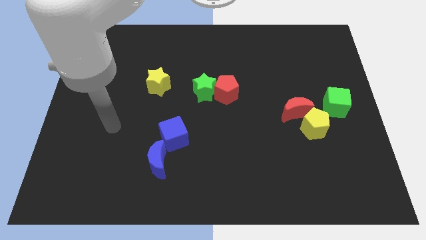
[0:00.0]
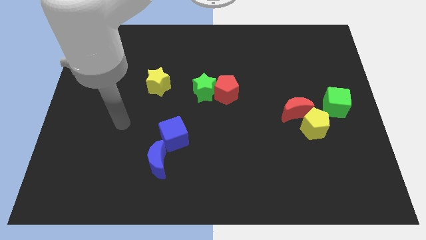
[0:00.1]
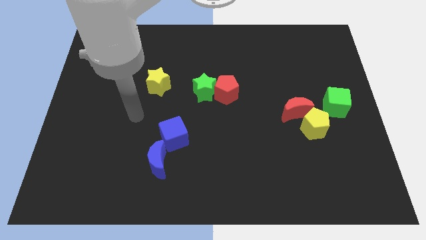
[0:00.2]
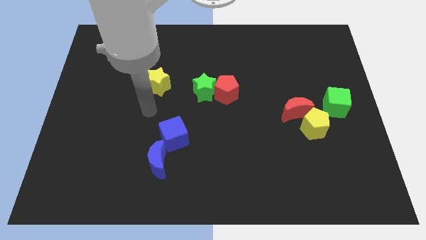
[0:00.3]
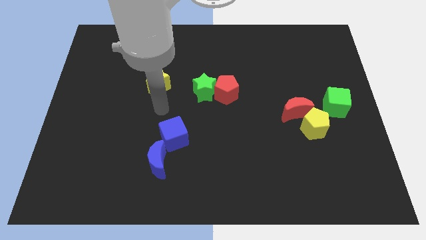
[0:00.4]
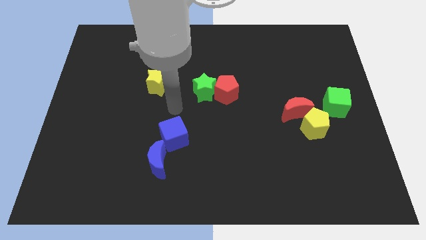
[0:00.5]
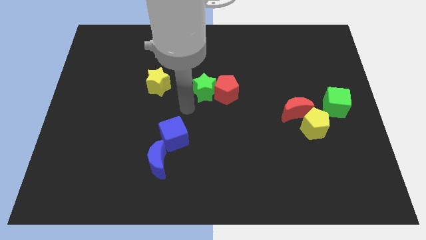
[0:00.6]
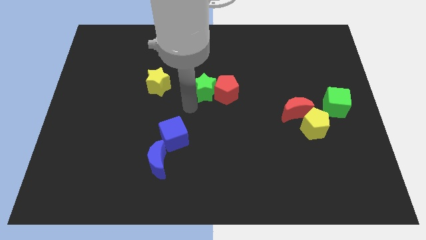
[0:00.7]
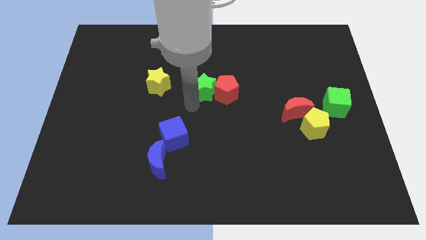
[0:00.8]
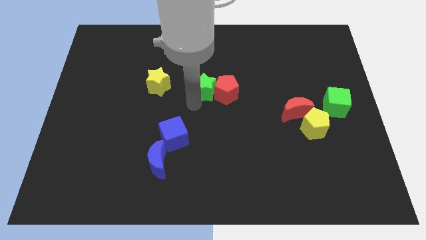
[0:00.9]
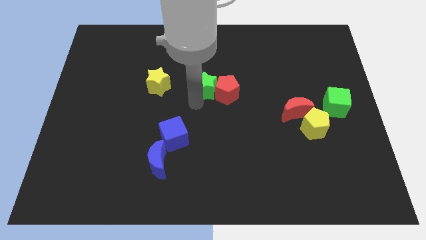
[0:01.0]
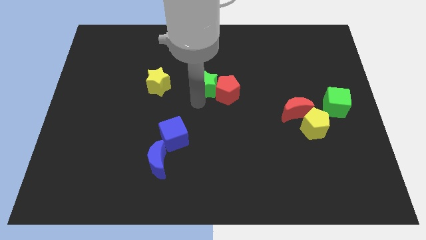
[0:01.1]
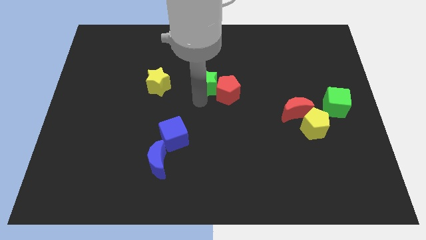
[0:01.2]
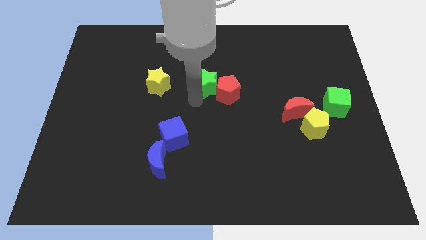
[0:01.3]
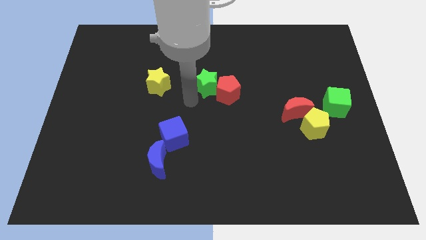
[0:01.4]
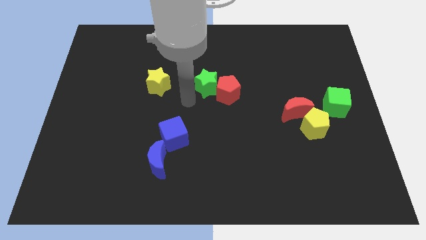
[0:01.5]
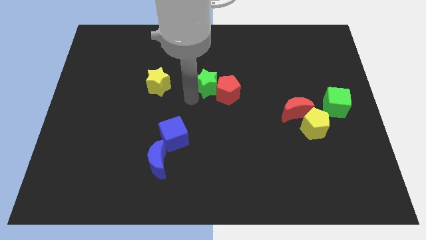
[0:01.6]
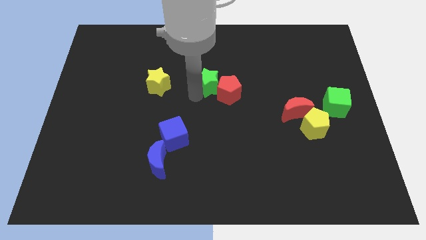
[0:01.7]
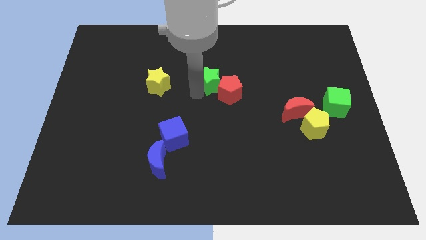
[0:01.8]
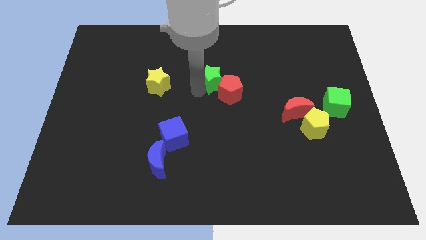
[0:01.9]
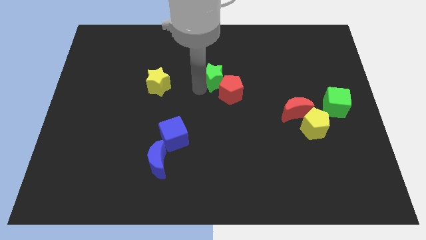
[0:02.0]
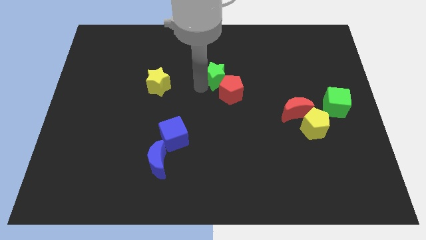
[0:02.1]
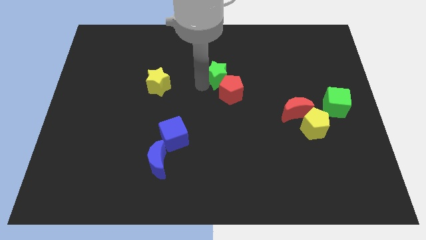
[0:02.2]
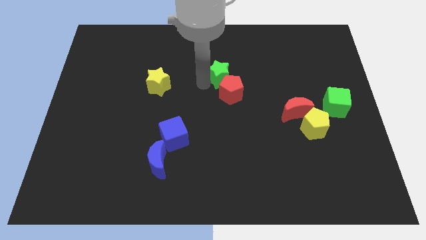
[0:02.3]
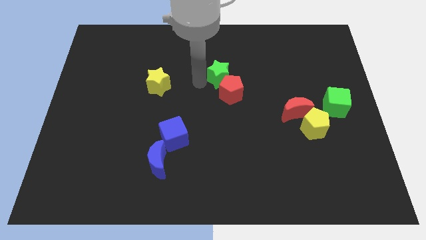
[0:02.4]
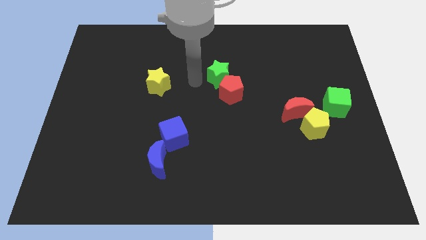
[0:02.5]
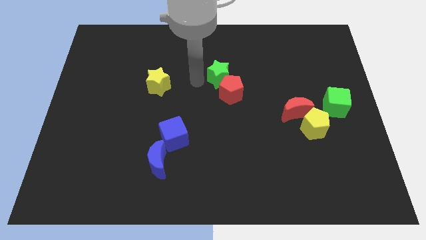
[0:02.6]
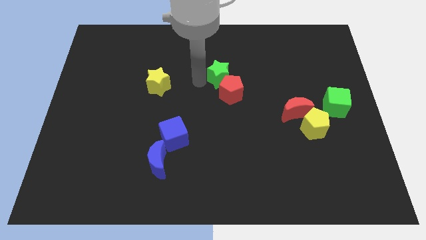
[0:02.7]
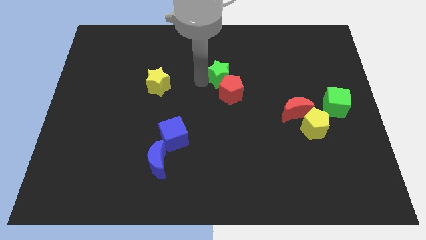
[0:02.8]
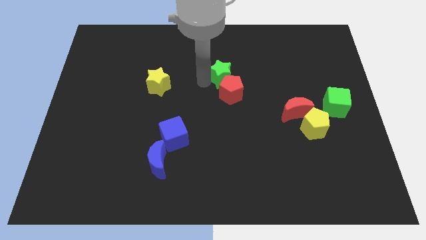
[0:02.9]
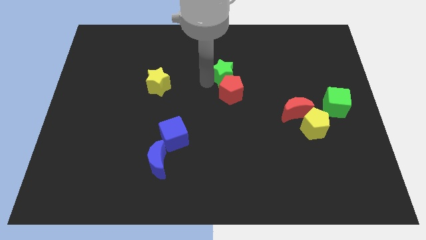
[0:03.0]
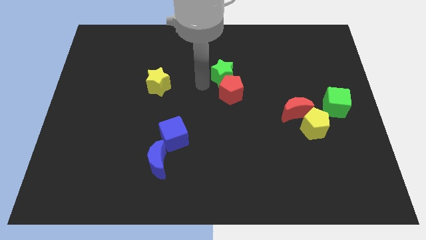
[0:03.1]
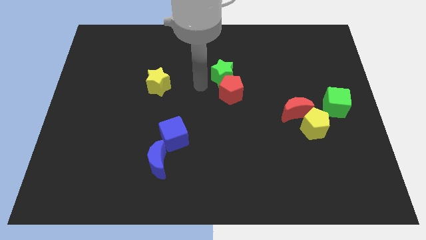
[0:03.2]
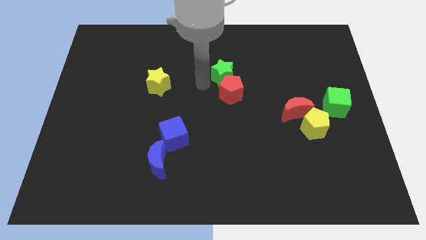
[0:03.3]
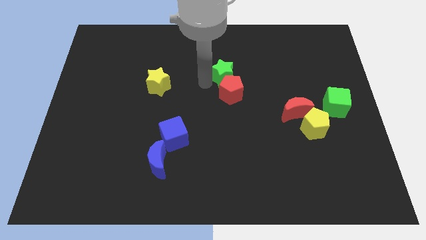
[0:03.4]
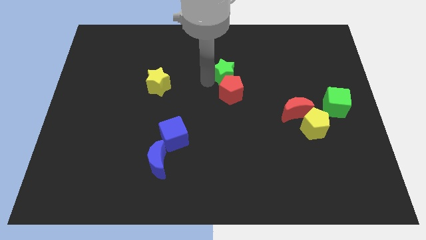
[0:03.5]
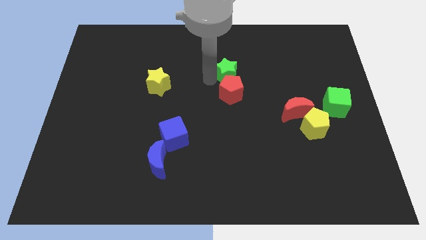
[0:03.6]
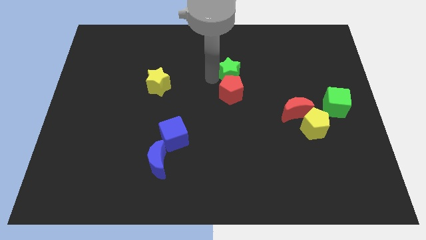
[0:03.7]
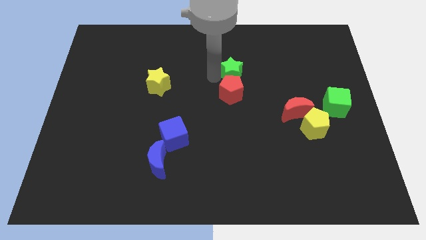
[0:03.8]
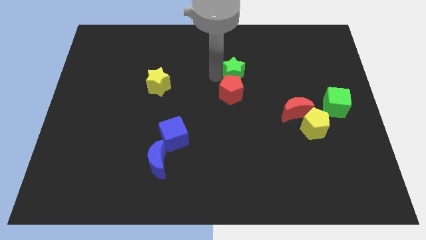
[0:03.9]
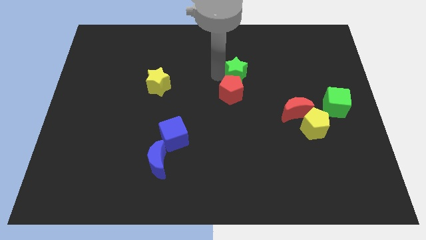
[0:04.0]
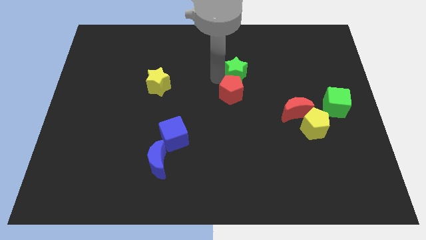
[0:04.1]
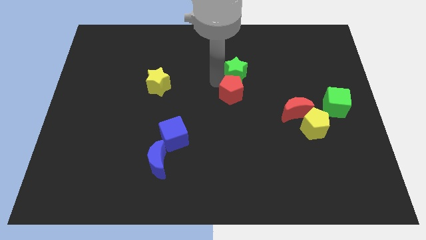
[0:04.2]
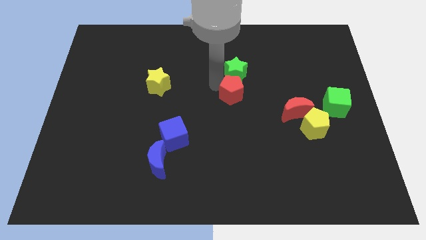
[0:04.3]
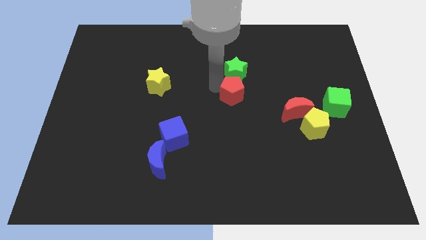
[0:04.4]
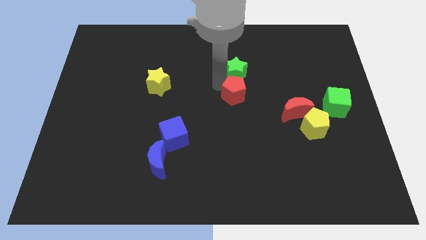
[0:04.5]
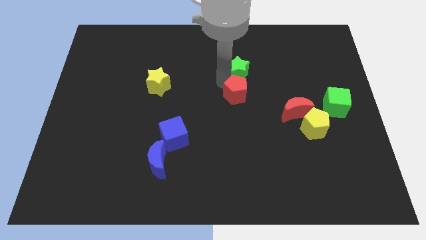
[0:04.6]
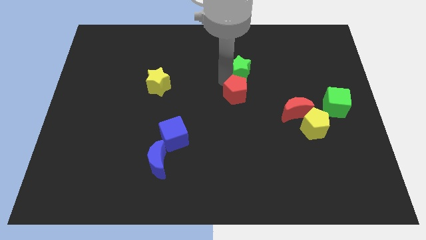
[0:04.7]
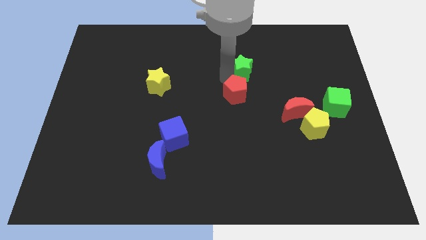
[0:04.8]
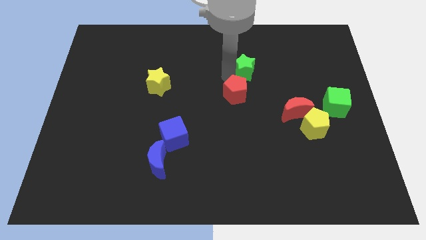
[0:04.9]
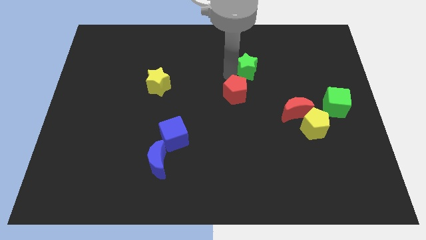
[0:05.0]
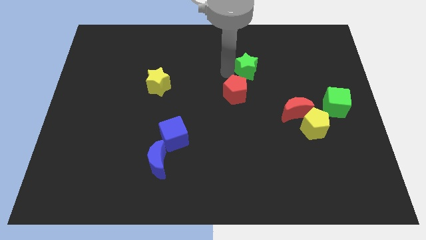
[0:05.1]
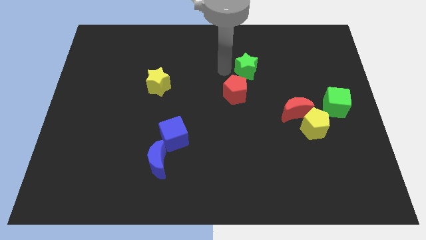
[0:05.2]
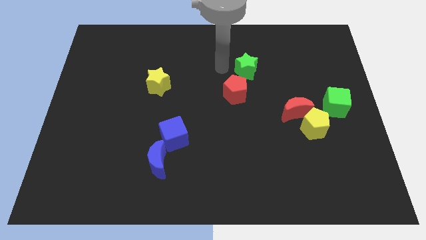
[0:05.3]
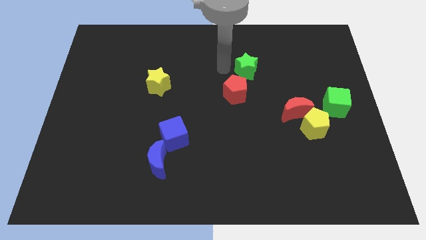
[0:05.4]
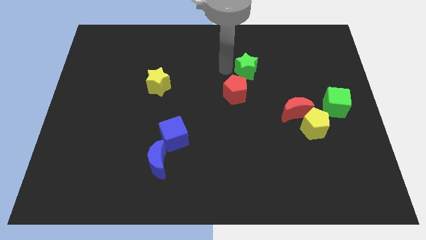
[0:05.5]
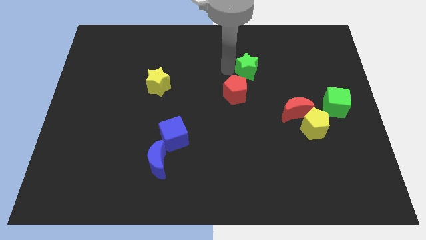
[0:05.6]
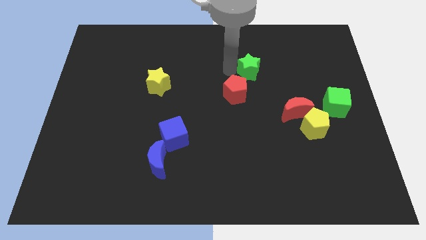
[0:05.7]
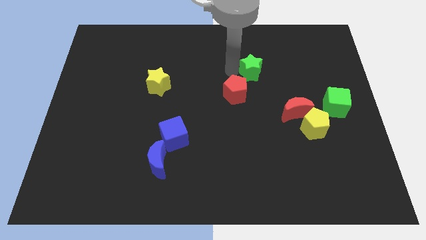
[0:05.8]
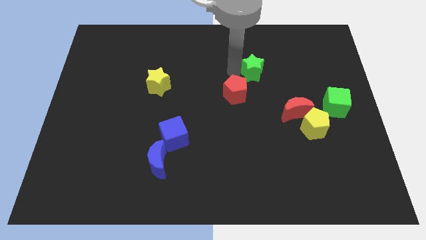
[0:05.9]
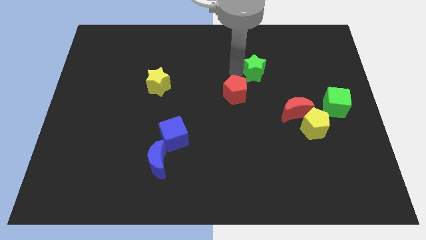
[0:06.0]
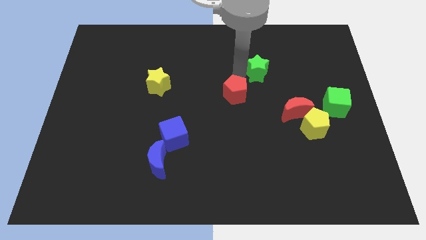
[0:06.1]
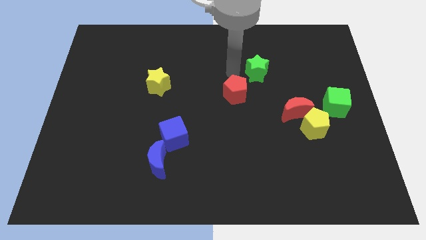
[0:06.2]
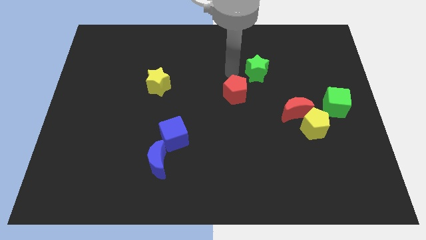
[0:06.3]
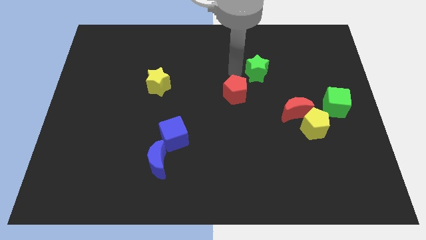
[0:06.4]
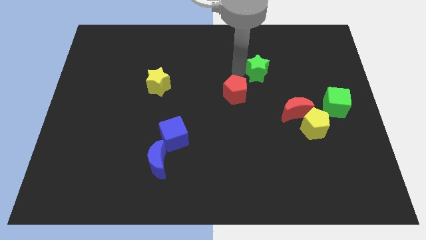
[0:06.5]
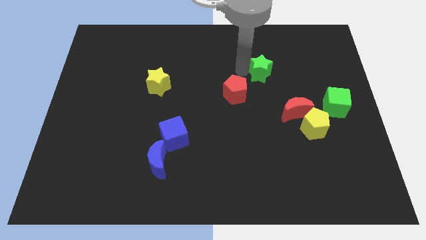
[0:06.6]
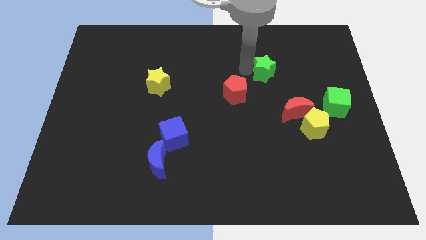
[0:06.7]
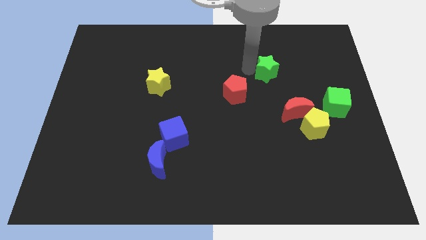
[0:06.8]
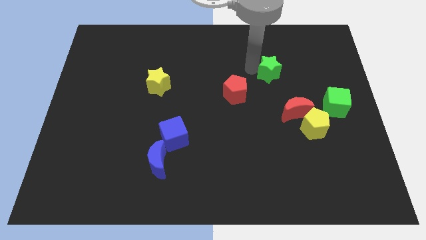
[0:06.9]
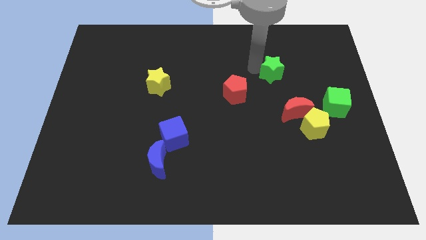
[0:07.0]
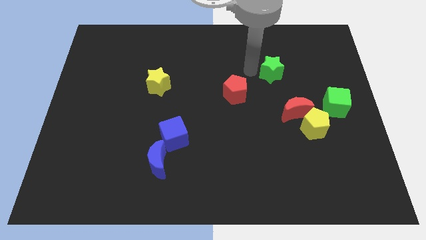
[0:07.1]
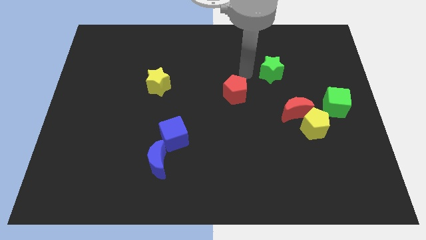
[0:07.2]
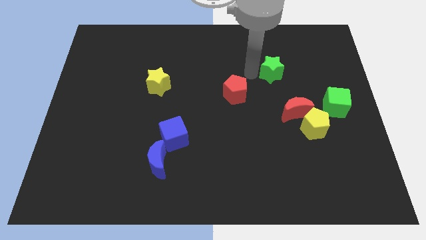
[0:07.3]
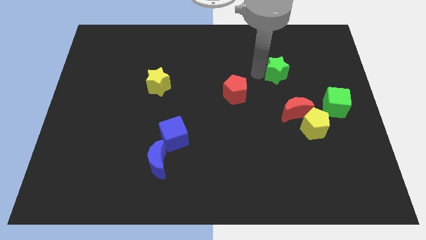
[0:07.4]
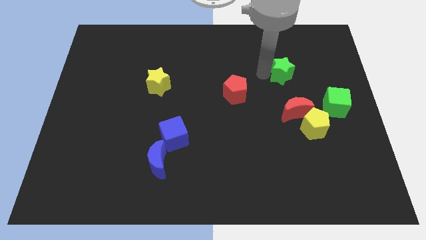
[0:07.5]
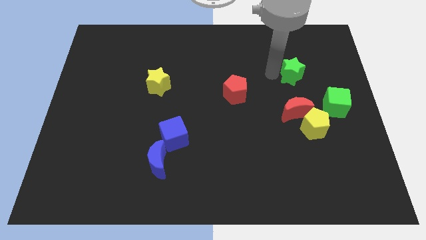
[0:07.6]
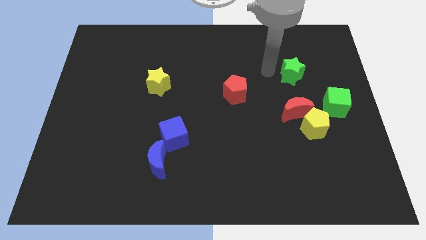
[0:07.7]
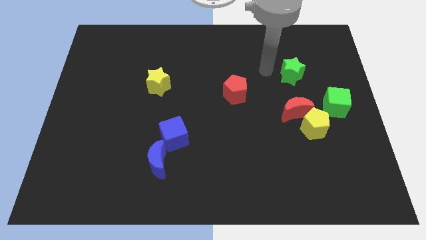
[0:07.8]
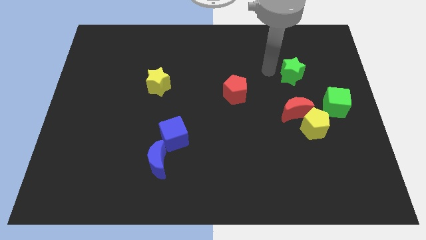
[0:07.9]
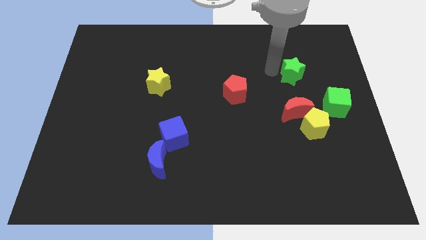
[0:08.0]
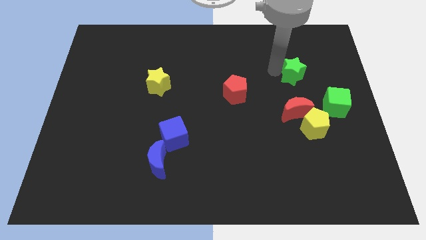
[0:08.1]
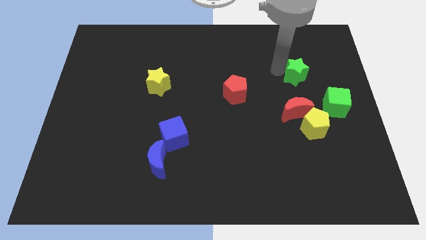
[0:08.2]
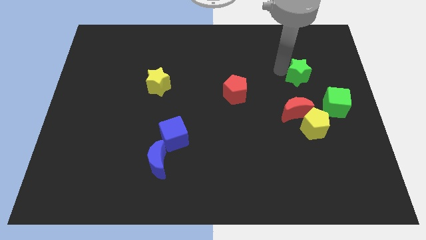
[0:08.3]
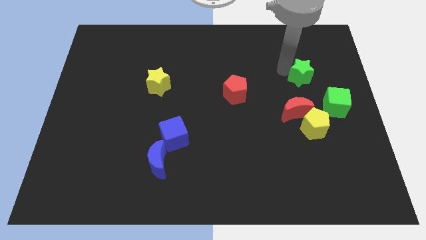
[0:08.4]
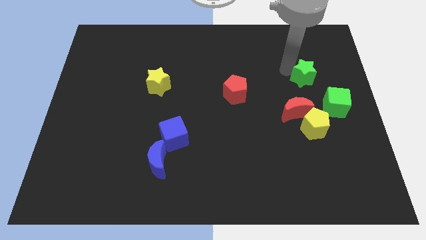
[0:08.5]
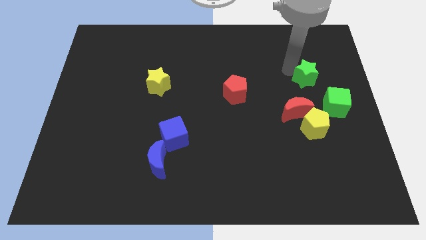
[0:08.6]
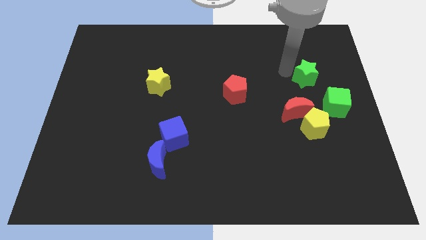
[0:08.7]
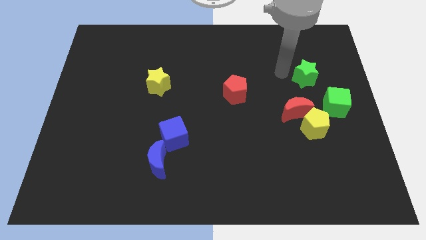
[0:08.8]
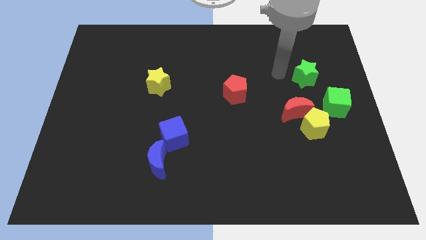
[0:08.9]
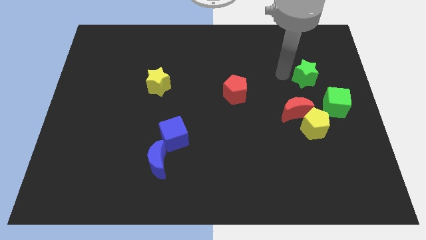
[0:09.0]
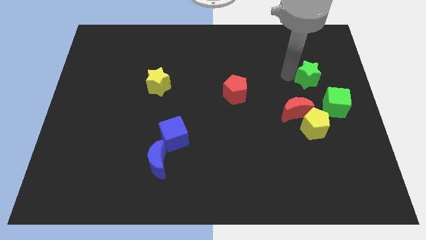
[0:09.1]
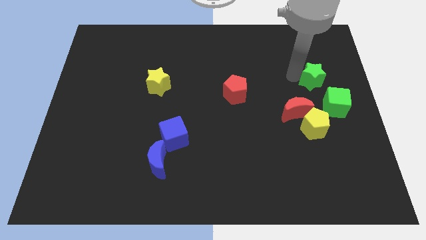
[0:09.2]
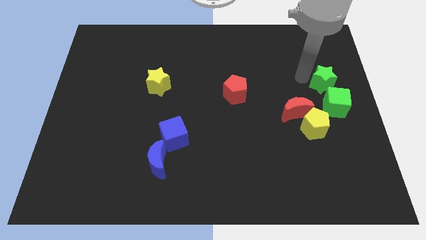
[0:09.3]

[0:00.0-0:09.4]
put the green star to the right side of the board
